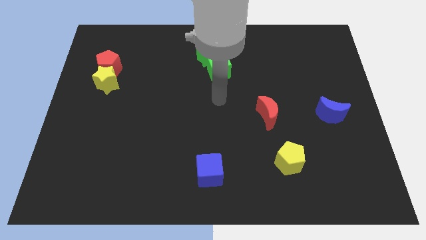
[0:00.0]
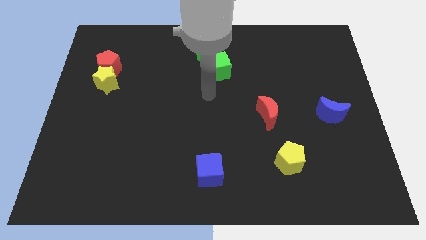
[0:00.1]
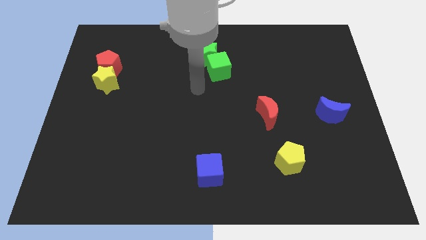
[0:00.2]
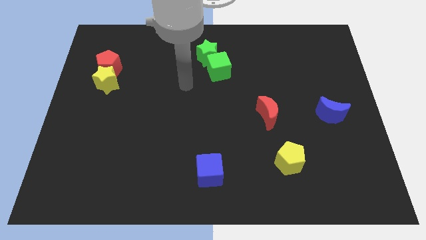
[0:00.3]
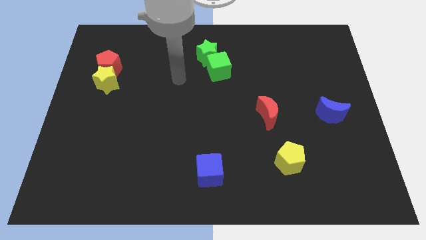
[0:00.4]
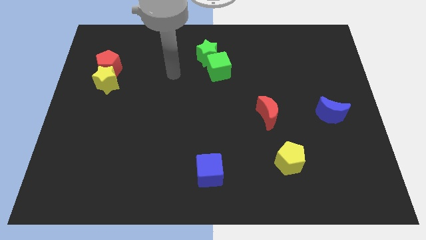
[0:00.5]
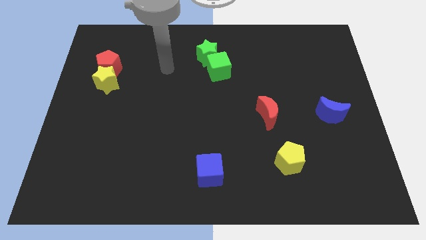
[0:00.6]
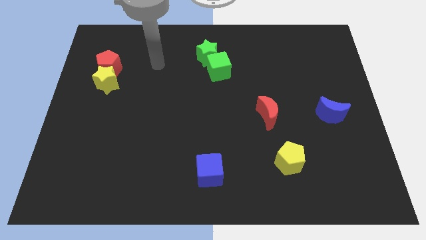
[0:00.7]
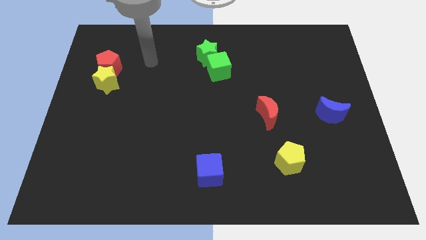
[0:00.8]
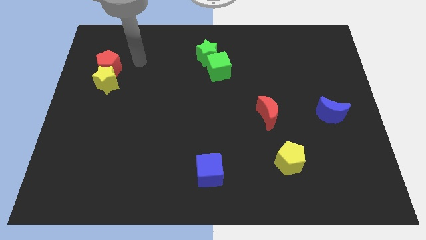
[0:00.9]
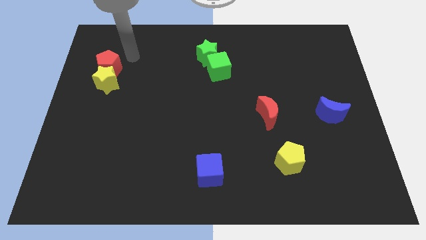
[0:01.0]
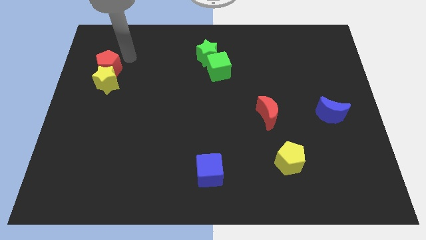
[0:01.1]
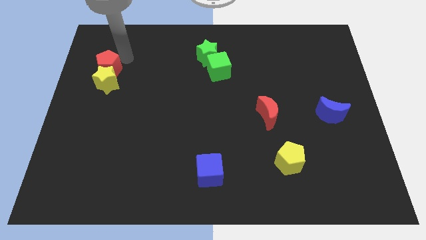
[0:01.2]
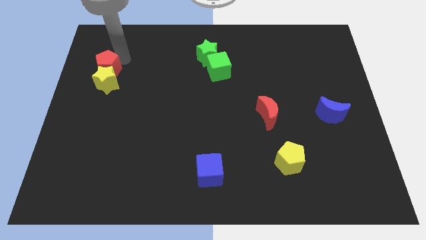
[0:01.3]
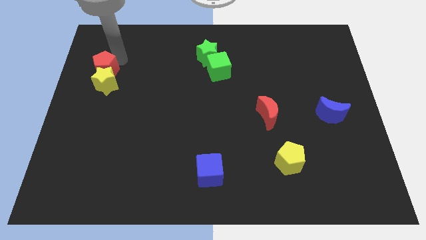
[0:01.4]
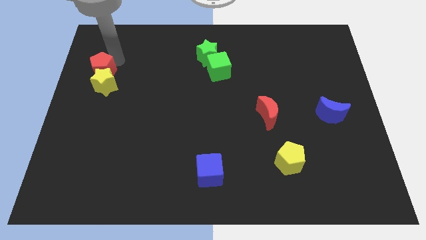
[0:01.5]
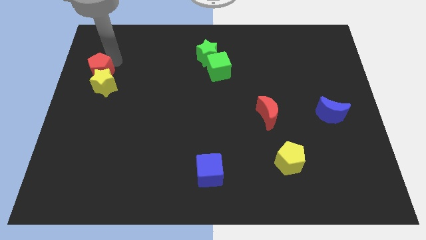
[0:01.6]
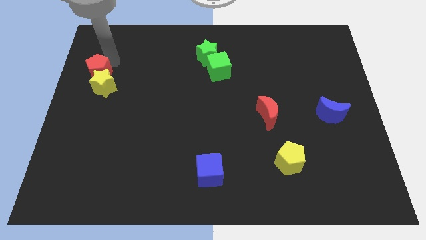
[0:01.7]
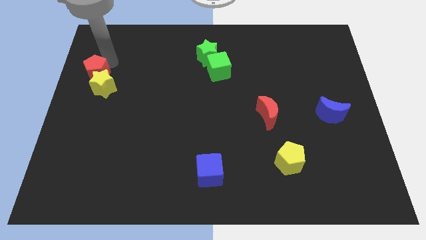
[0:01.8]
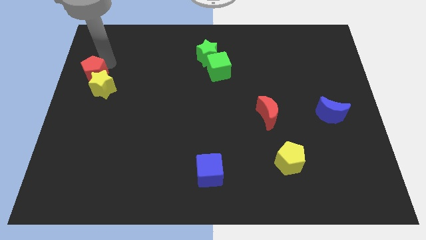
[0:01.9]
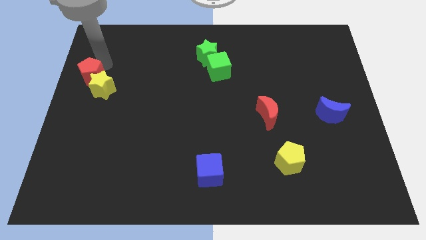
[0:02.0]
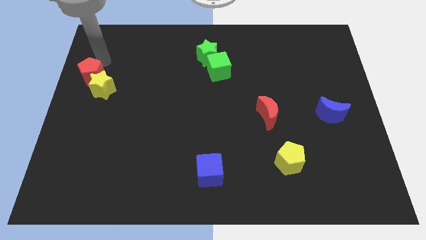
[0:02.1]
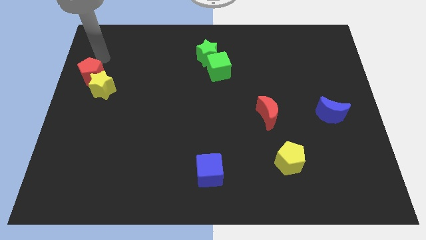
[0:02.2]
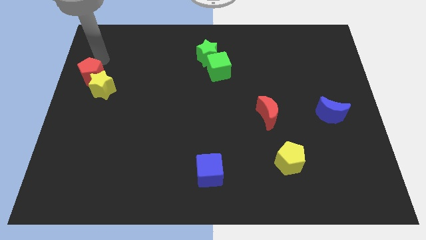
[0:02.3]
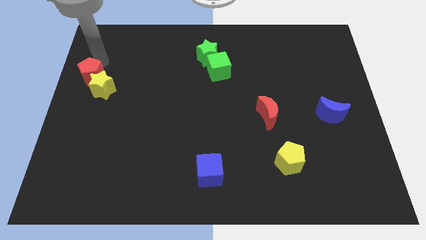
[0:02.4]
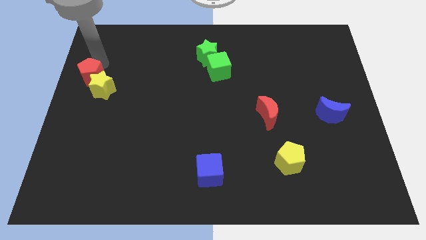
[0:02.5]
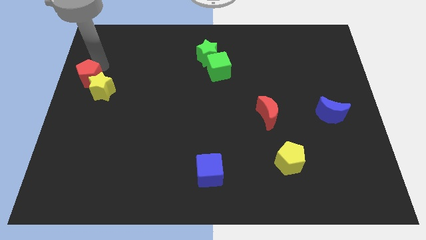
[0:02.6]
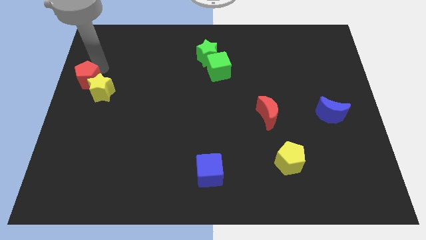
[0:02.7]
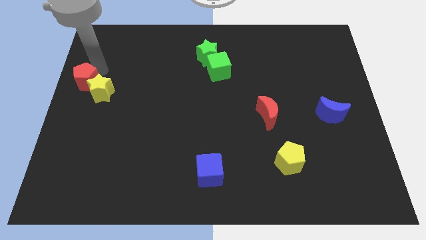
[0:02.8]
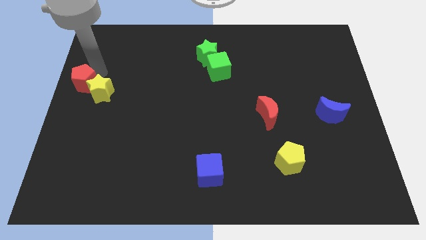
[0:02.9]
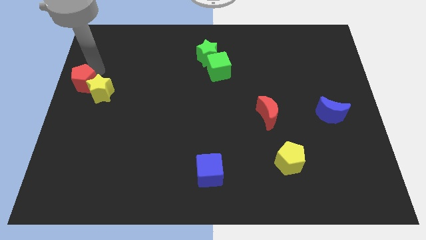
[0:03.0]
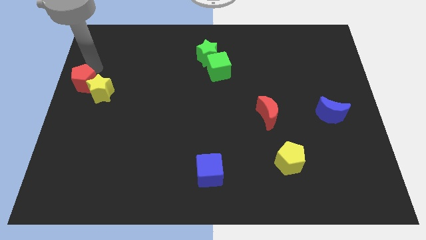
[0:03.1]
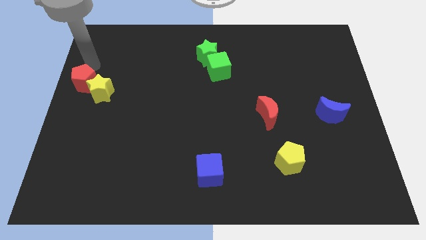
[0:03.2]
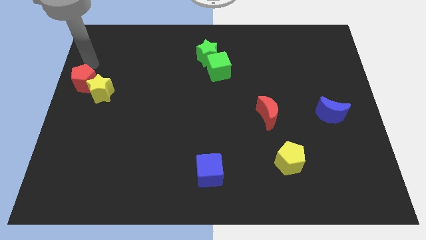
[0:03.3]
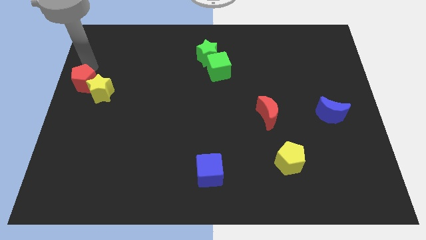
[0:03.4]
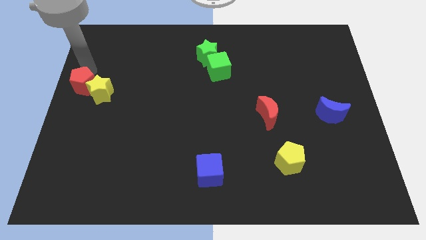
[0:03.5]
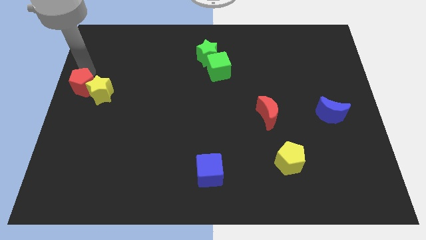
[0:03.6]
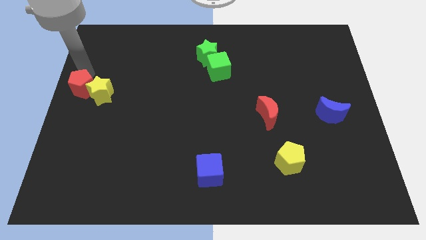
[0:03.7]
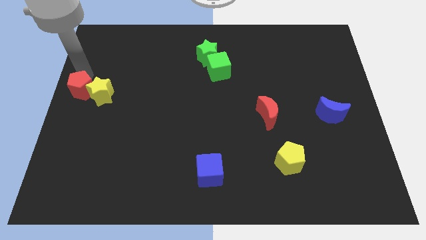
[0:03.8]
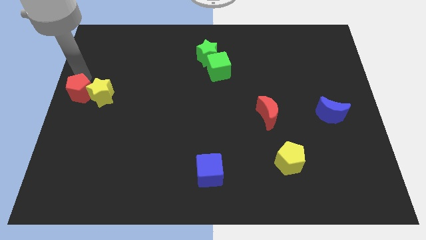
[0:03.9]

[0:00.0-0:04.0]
slightly slide the red pentagon down

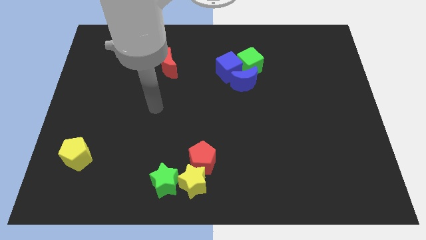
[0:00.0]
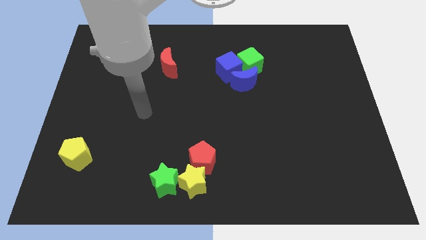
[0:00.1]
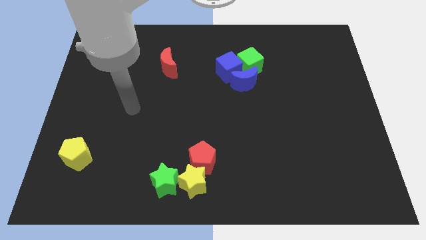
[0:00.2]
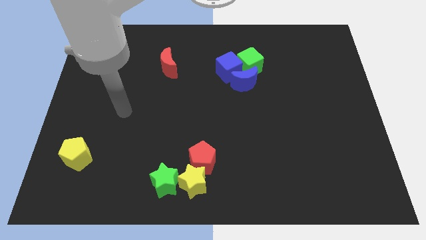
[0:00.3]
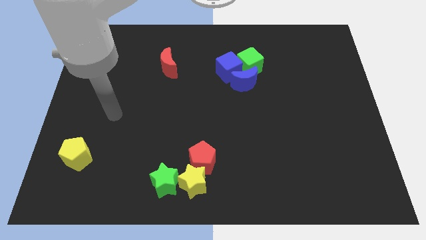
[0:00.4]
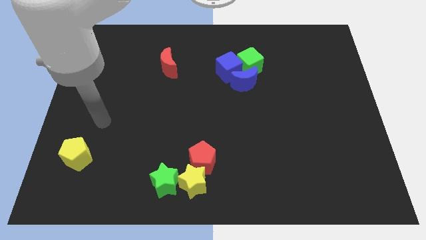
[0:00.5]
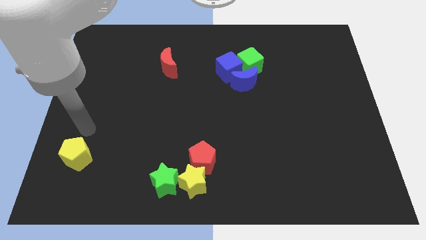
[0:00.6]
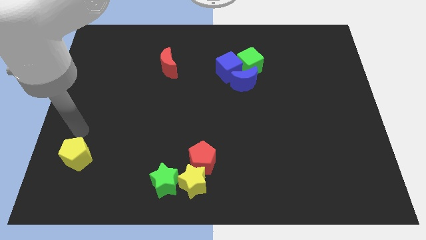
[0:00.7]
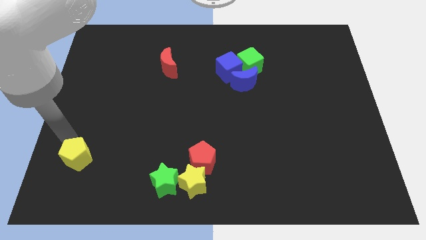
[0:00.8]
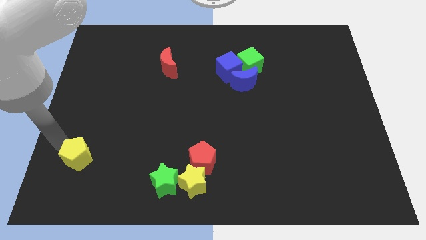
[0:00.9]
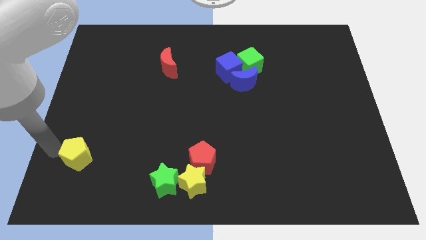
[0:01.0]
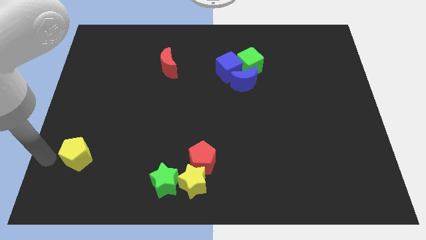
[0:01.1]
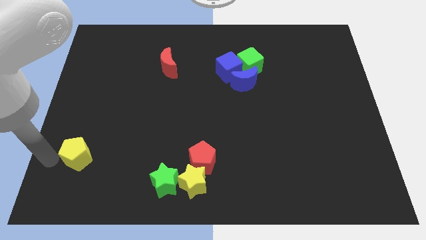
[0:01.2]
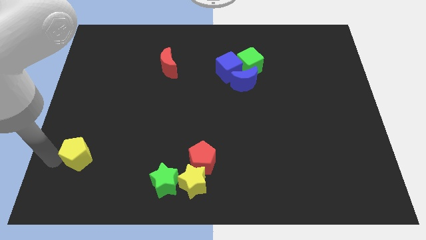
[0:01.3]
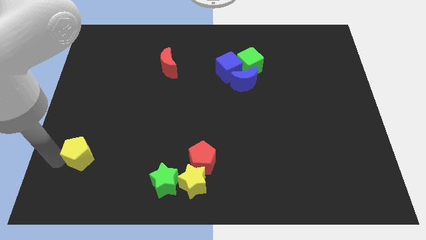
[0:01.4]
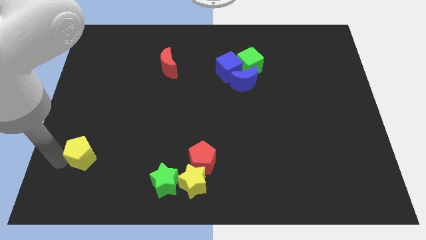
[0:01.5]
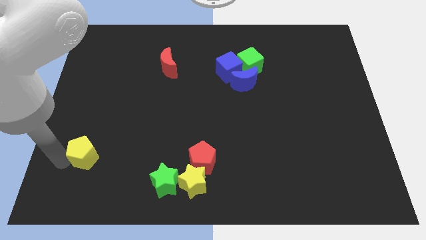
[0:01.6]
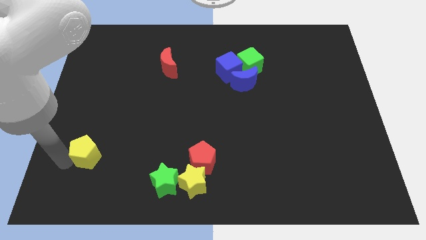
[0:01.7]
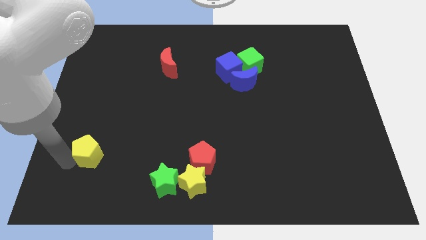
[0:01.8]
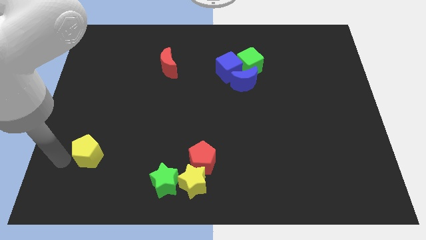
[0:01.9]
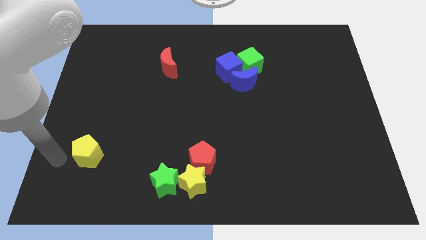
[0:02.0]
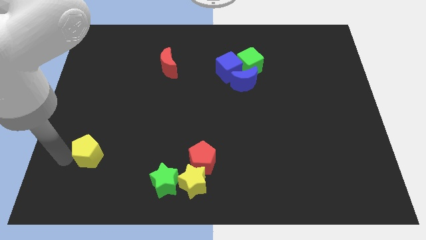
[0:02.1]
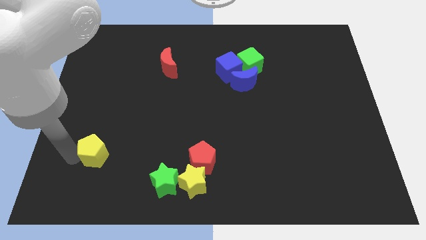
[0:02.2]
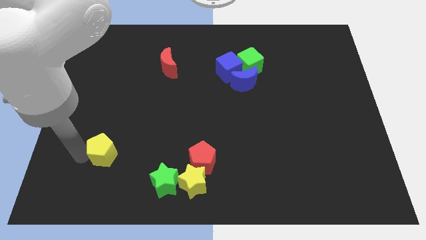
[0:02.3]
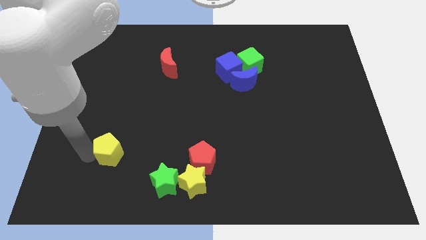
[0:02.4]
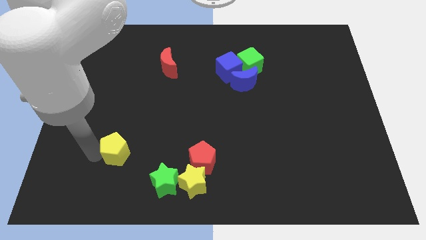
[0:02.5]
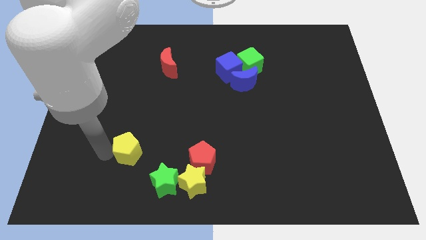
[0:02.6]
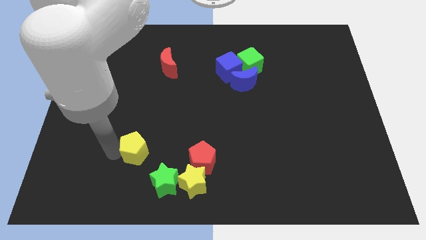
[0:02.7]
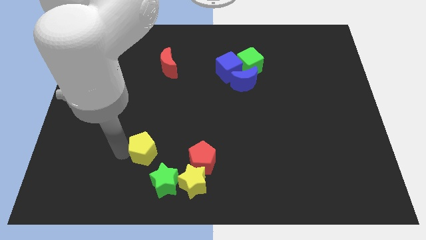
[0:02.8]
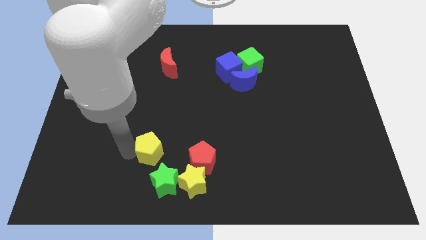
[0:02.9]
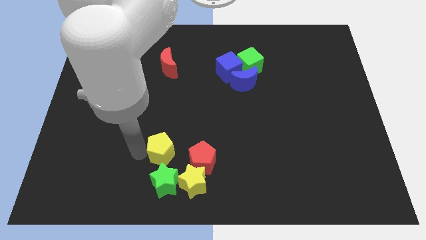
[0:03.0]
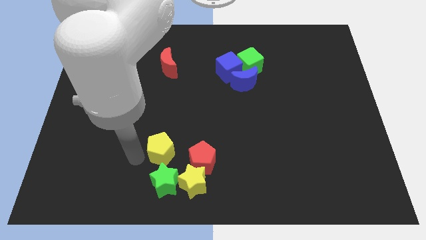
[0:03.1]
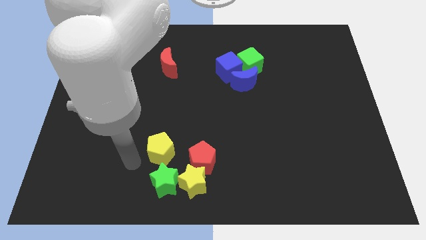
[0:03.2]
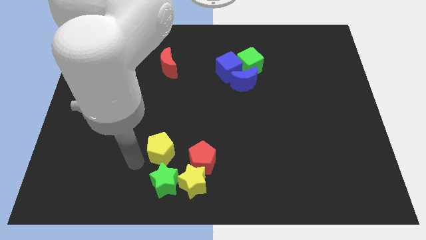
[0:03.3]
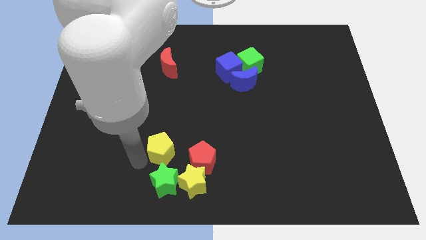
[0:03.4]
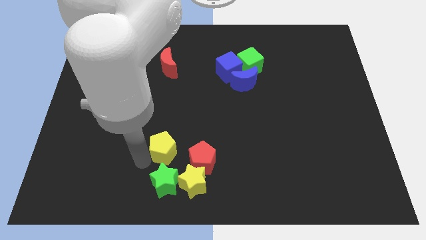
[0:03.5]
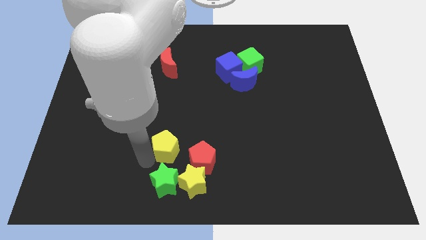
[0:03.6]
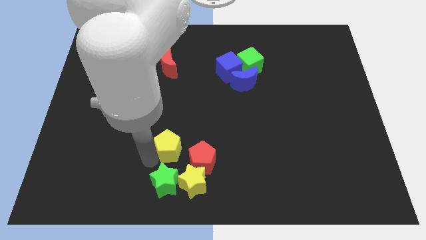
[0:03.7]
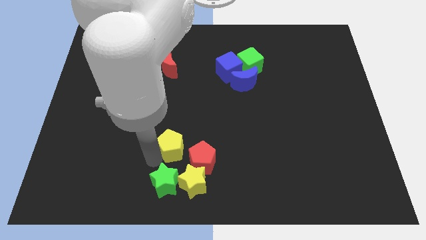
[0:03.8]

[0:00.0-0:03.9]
slide the yellow pentagon to the right

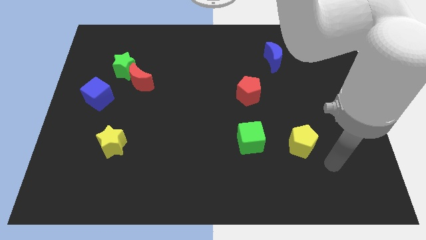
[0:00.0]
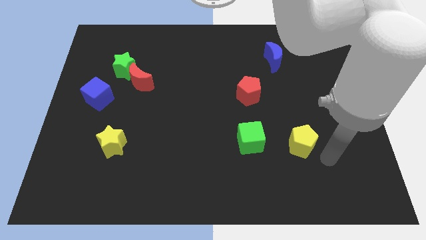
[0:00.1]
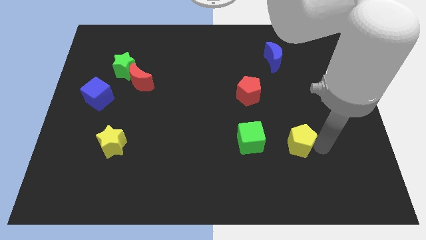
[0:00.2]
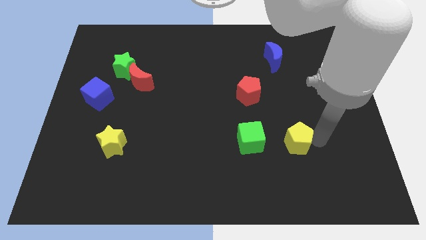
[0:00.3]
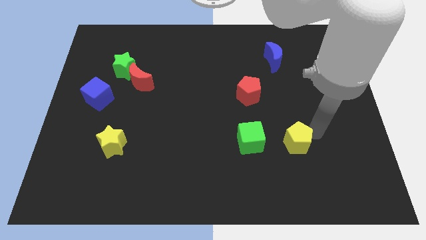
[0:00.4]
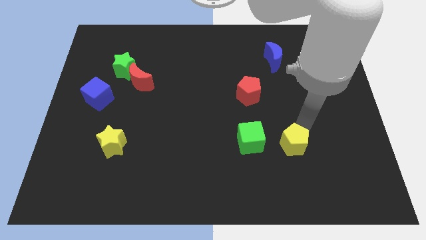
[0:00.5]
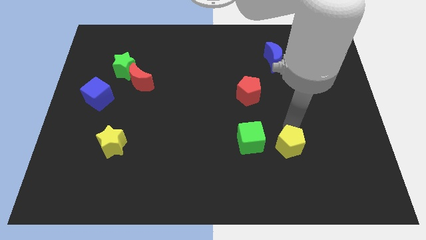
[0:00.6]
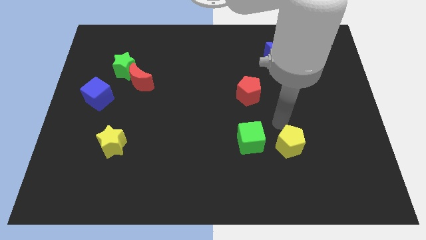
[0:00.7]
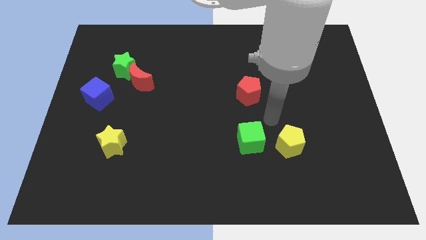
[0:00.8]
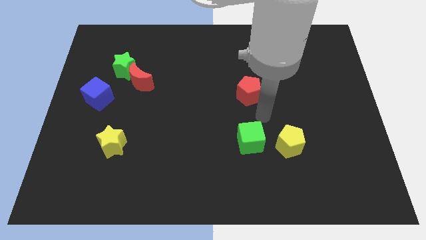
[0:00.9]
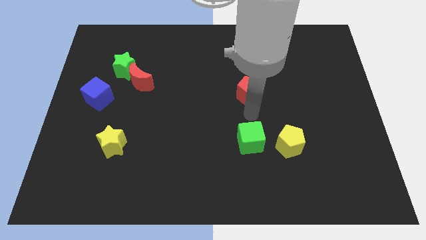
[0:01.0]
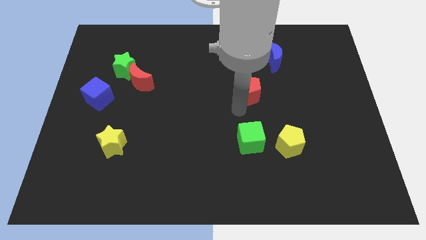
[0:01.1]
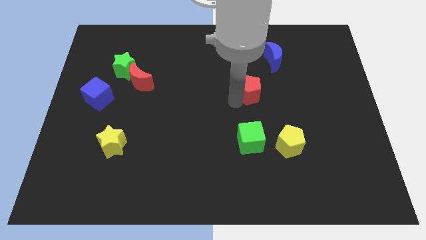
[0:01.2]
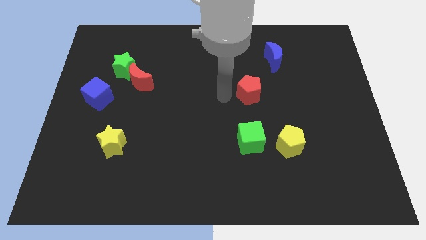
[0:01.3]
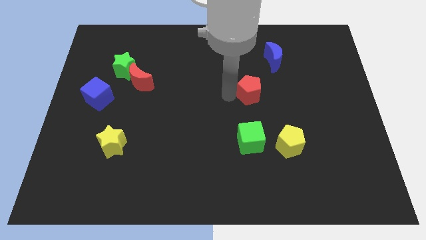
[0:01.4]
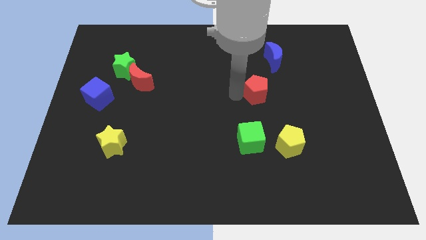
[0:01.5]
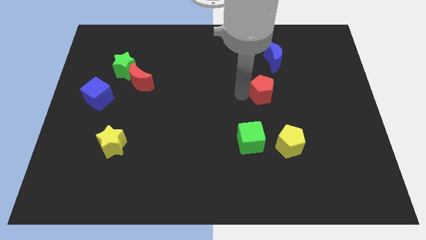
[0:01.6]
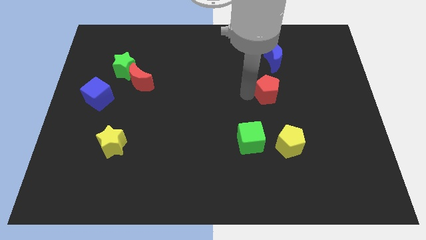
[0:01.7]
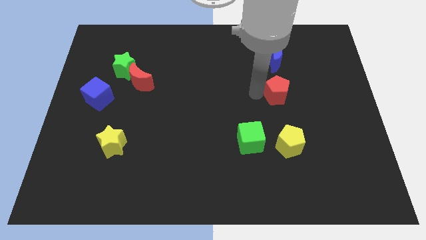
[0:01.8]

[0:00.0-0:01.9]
slightly move the red pentagon right
